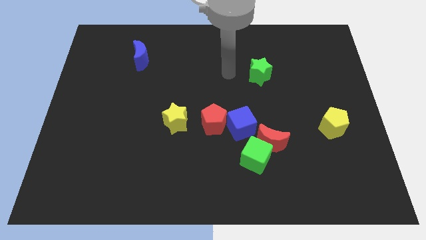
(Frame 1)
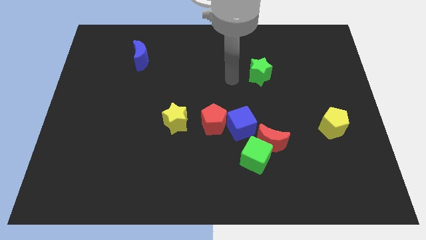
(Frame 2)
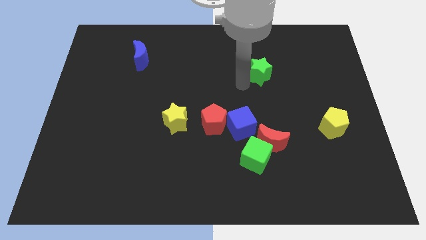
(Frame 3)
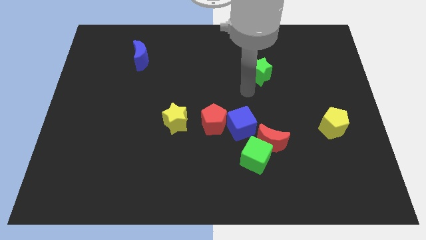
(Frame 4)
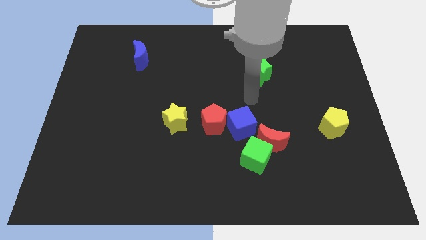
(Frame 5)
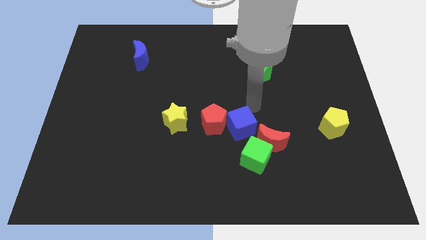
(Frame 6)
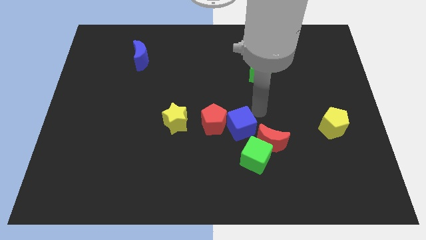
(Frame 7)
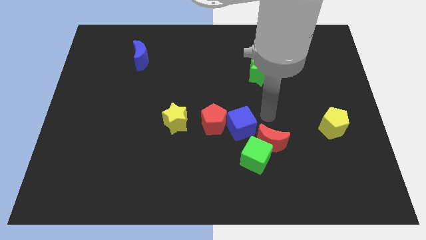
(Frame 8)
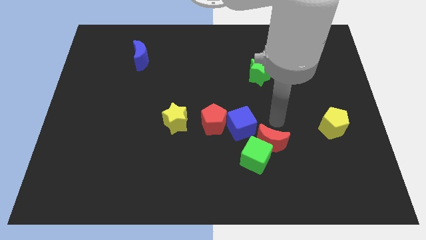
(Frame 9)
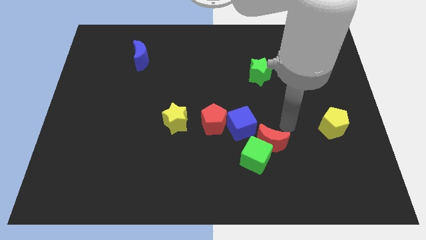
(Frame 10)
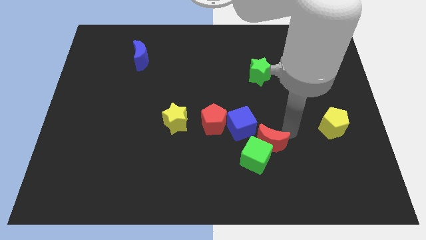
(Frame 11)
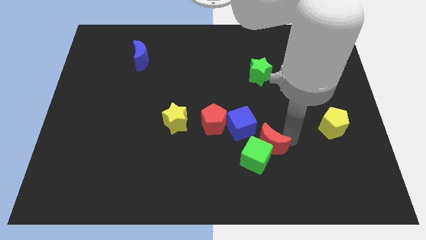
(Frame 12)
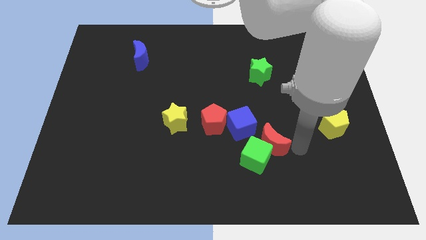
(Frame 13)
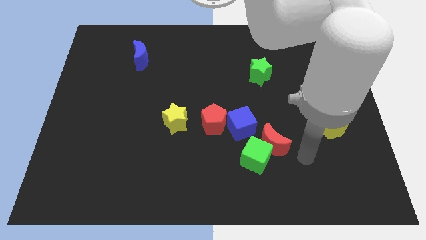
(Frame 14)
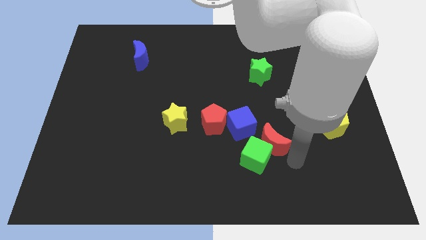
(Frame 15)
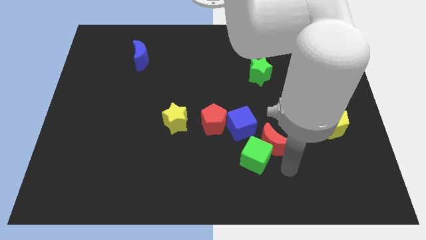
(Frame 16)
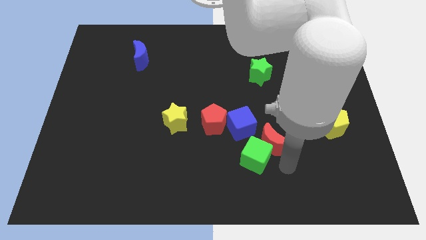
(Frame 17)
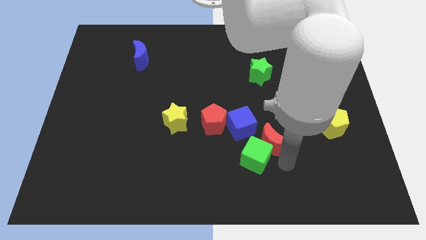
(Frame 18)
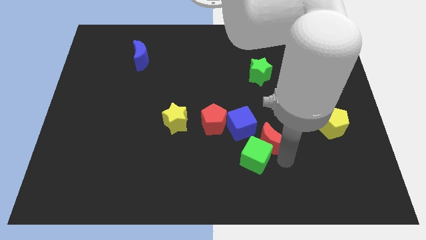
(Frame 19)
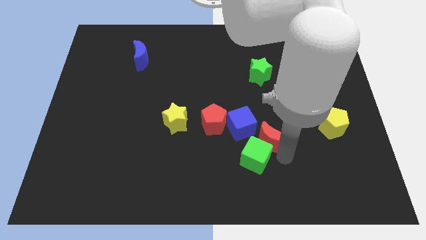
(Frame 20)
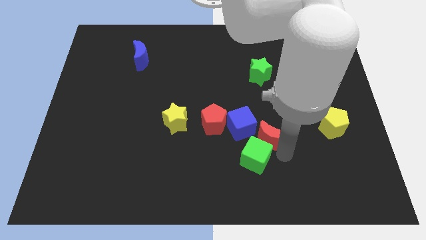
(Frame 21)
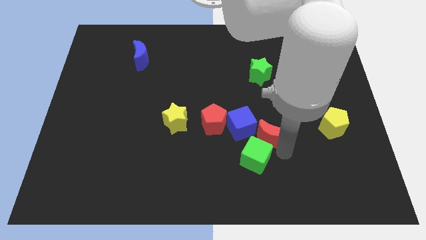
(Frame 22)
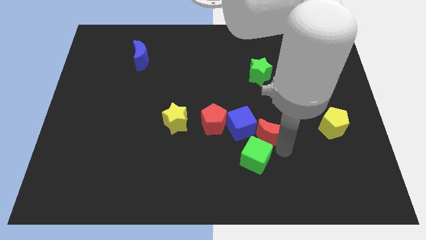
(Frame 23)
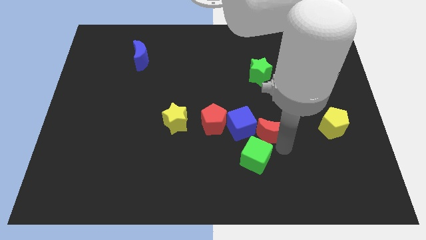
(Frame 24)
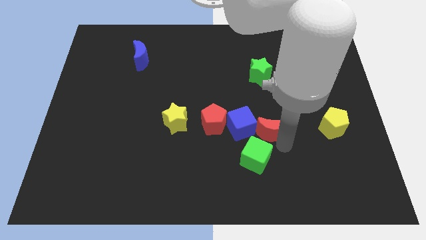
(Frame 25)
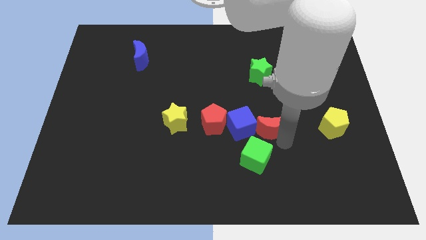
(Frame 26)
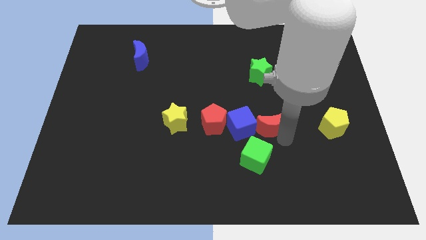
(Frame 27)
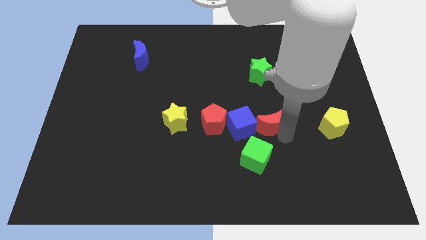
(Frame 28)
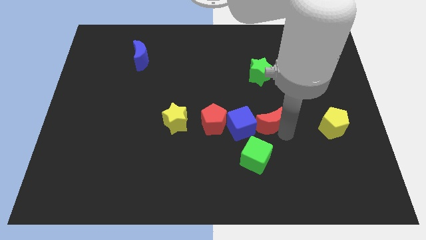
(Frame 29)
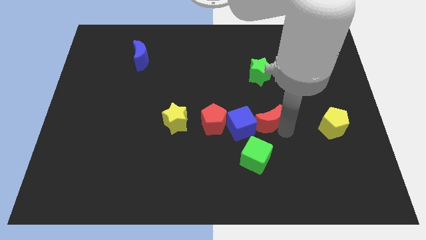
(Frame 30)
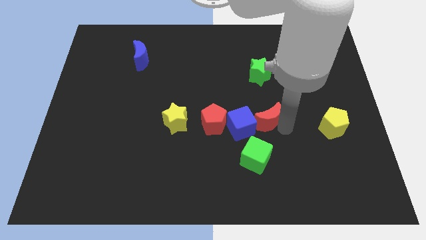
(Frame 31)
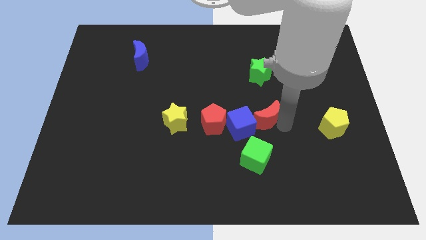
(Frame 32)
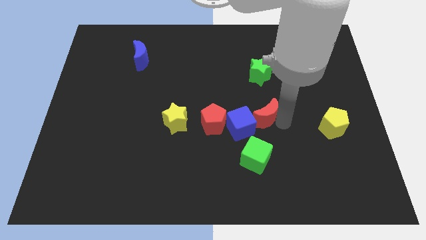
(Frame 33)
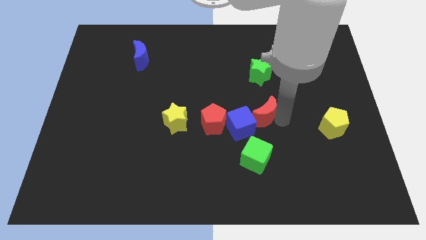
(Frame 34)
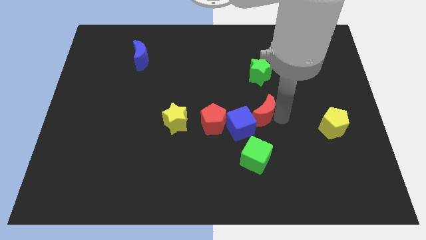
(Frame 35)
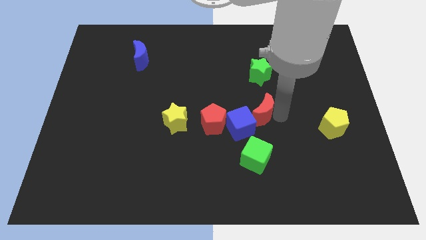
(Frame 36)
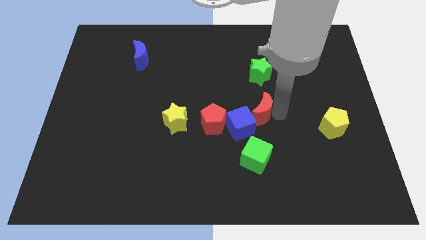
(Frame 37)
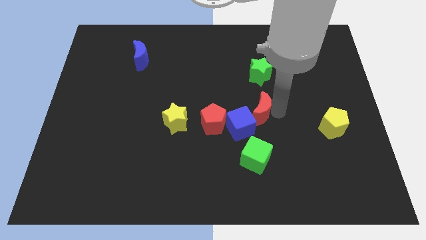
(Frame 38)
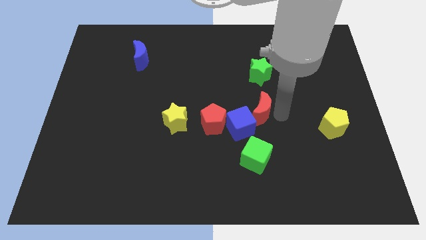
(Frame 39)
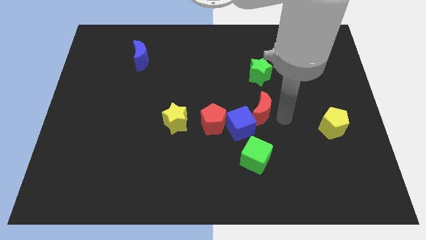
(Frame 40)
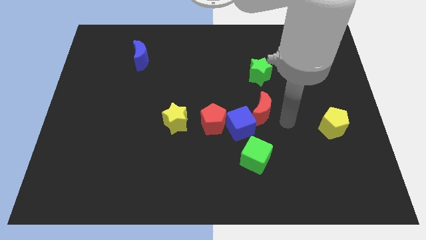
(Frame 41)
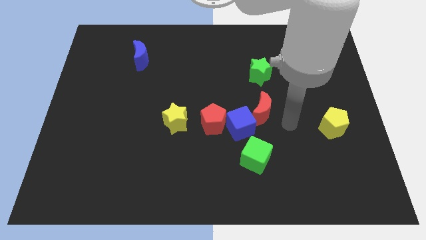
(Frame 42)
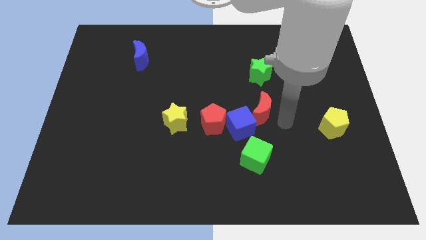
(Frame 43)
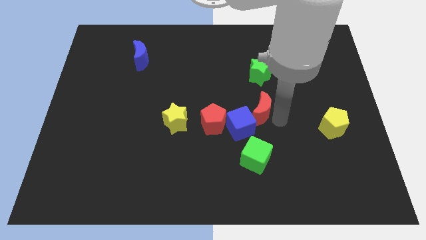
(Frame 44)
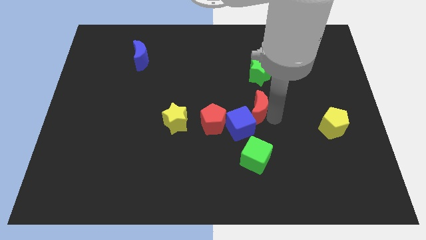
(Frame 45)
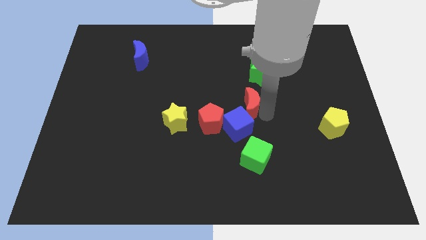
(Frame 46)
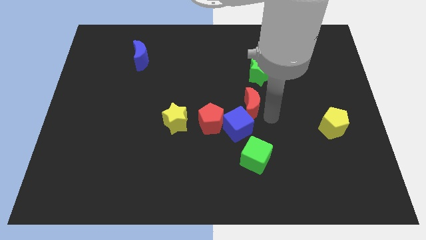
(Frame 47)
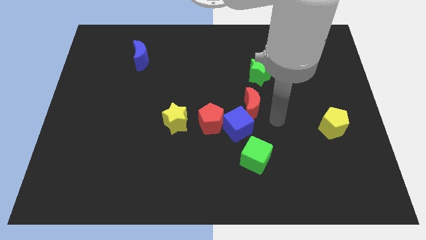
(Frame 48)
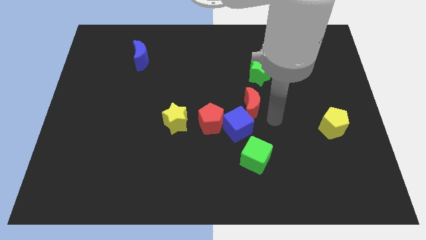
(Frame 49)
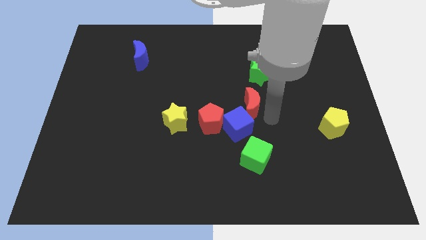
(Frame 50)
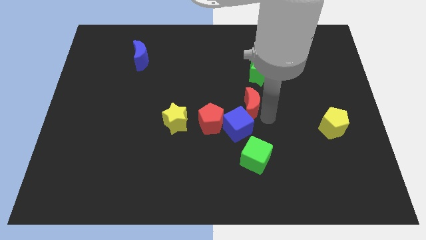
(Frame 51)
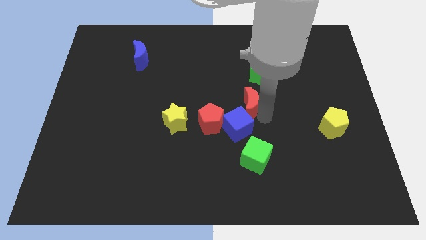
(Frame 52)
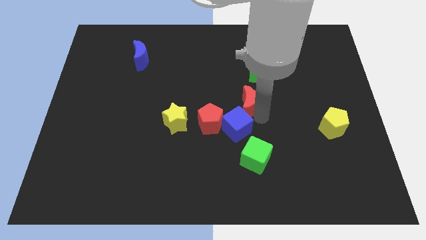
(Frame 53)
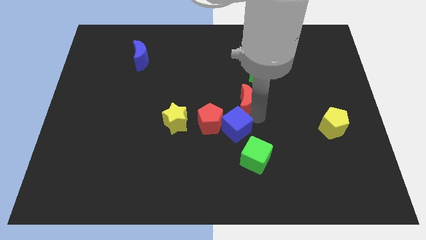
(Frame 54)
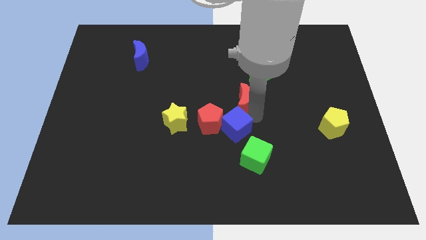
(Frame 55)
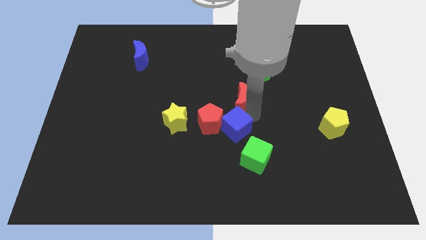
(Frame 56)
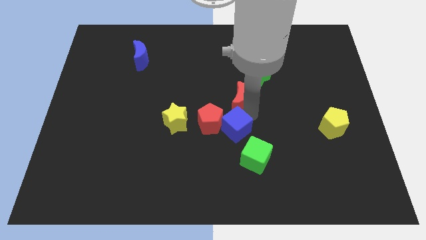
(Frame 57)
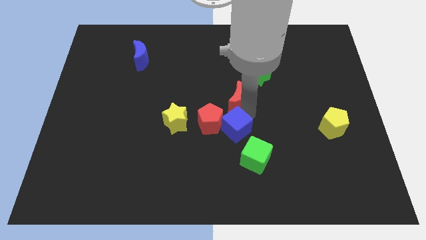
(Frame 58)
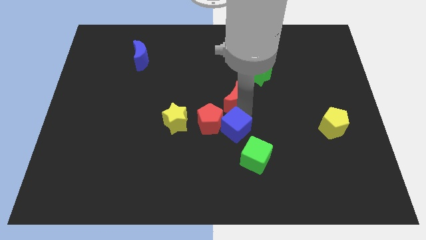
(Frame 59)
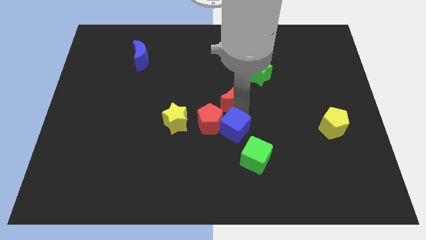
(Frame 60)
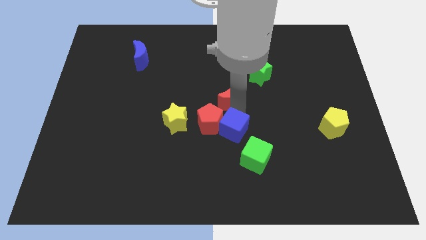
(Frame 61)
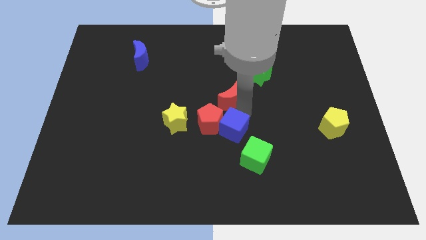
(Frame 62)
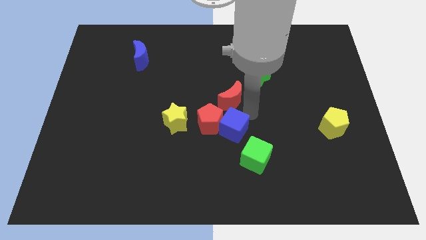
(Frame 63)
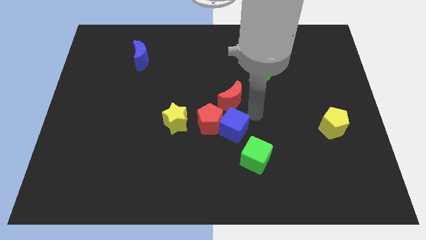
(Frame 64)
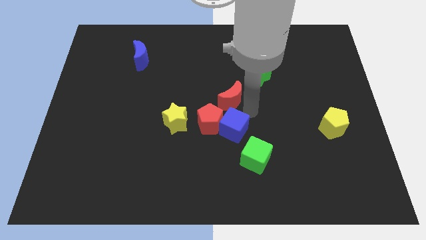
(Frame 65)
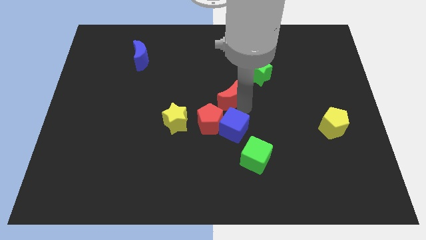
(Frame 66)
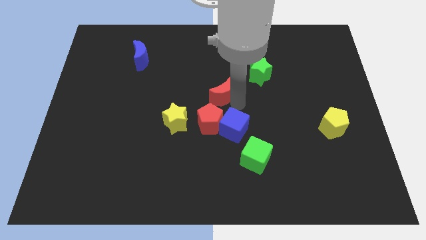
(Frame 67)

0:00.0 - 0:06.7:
put the red moon above the red pentagon
